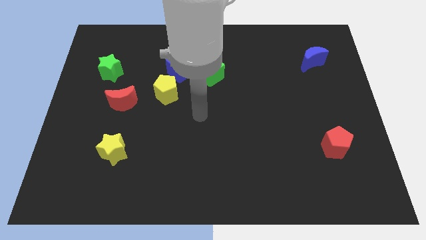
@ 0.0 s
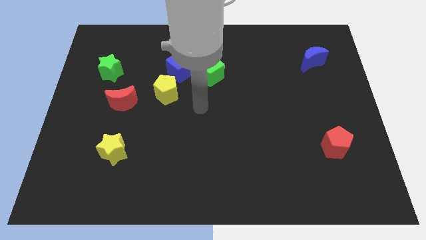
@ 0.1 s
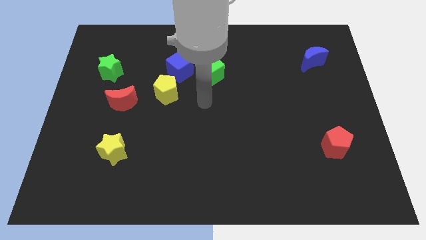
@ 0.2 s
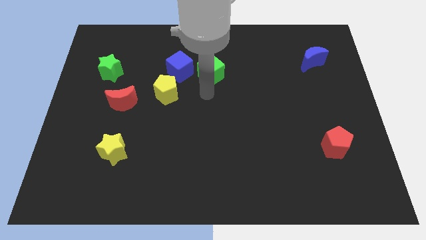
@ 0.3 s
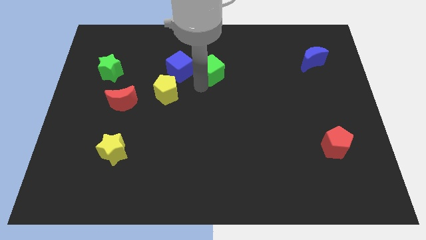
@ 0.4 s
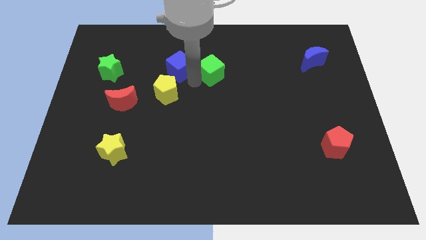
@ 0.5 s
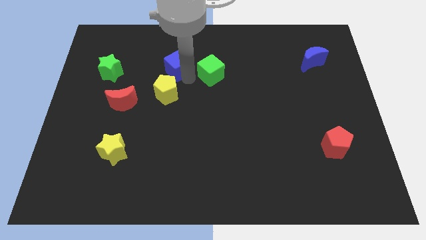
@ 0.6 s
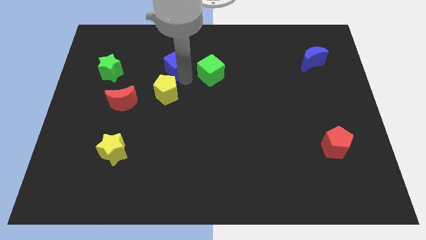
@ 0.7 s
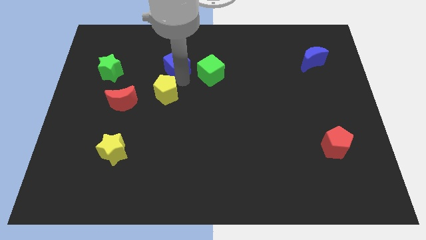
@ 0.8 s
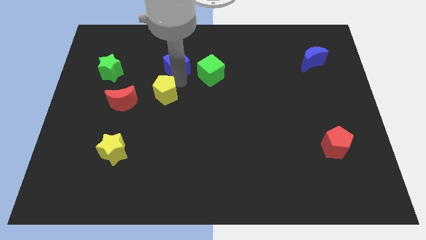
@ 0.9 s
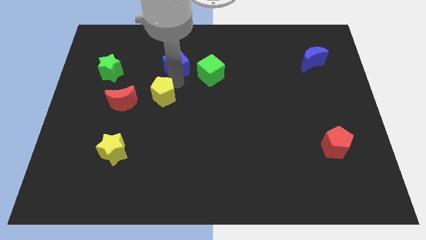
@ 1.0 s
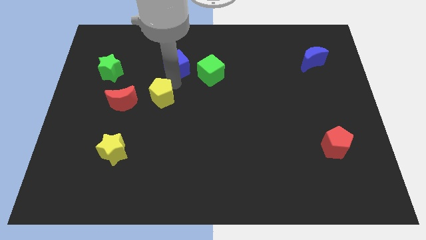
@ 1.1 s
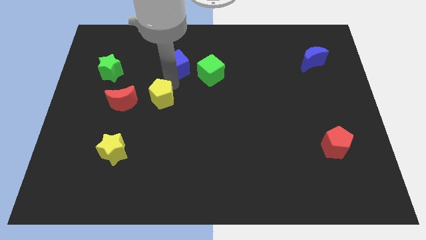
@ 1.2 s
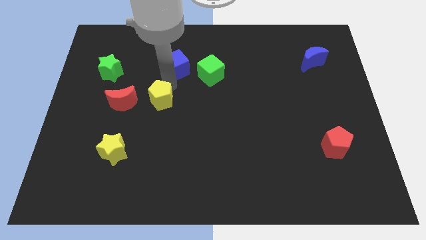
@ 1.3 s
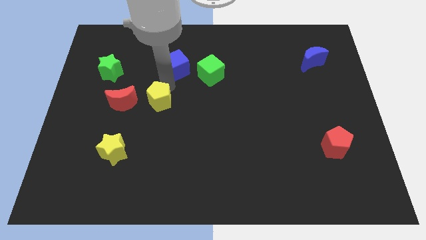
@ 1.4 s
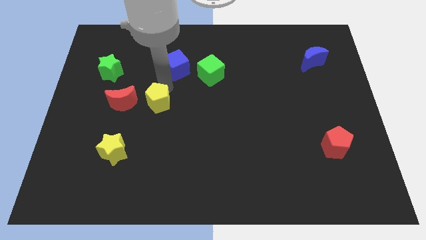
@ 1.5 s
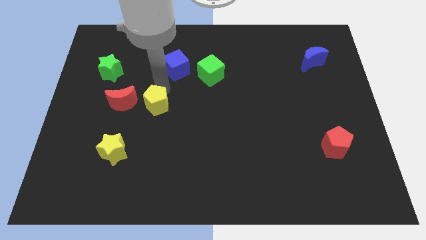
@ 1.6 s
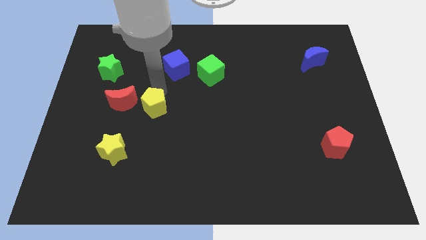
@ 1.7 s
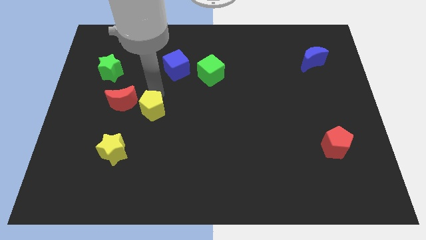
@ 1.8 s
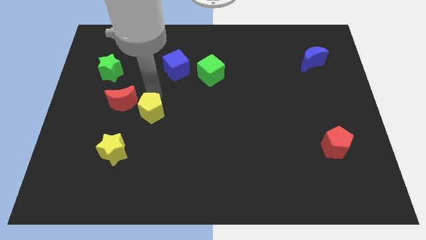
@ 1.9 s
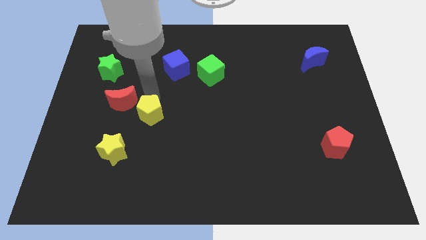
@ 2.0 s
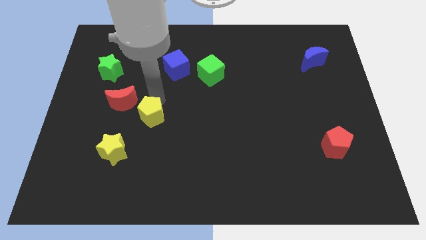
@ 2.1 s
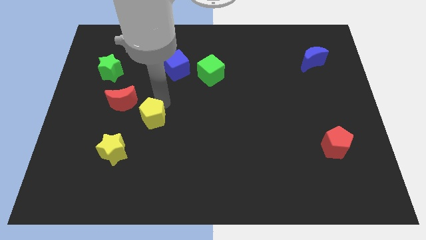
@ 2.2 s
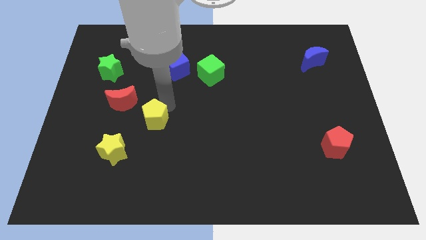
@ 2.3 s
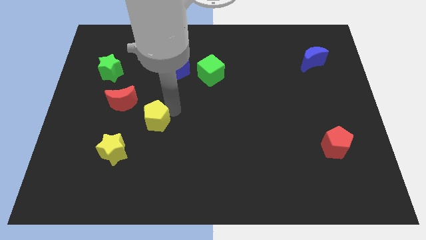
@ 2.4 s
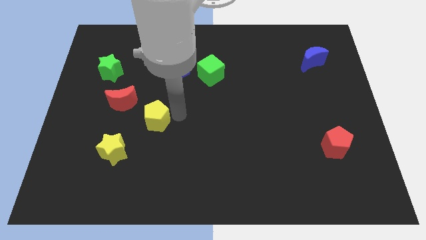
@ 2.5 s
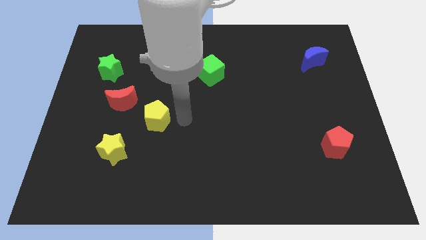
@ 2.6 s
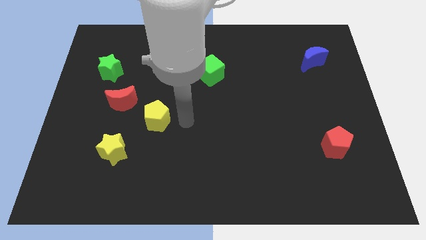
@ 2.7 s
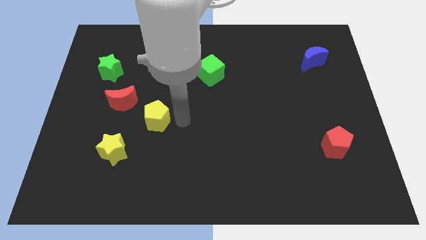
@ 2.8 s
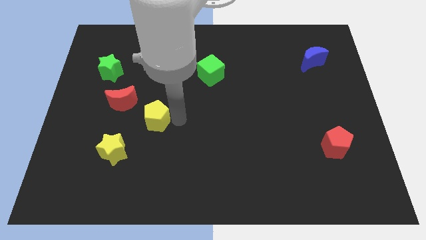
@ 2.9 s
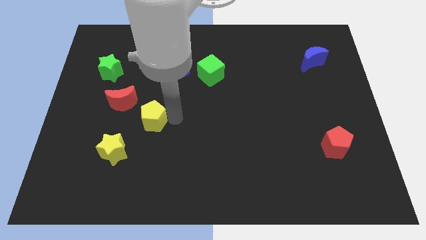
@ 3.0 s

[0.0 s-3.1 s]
slightly push the yellow pentagon diagonally downwards and left

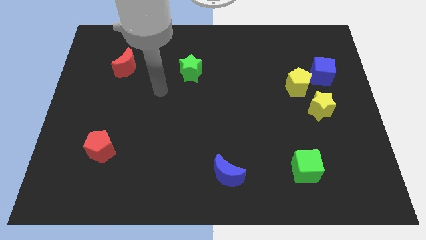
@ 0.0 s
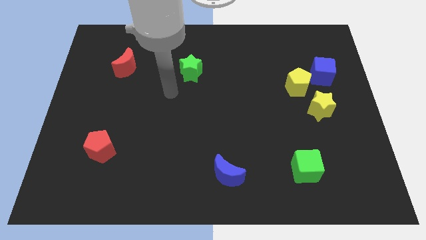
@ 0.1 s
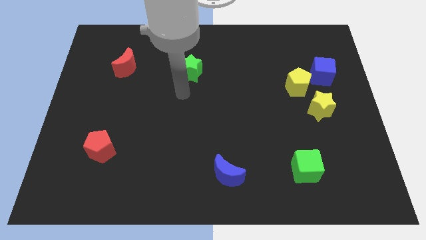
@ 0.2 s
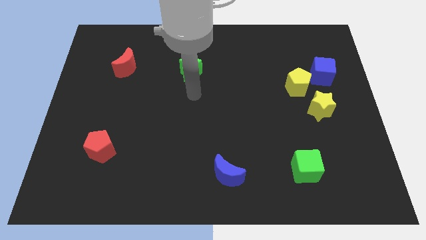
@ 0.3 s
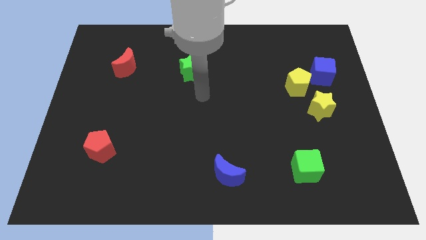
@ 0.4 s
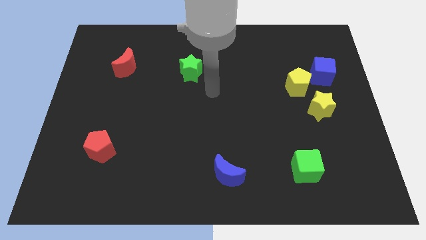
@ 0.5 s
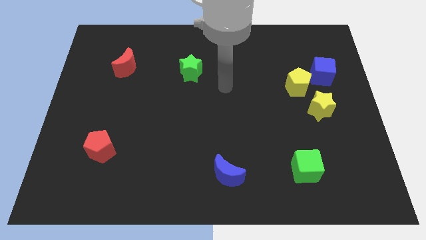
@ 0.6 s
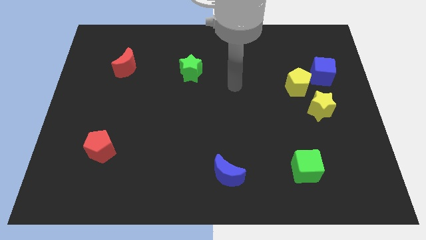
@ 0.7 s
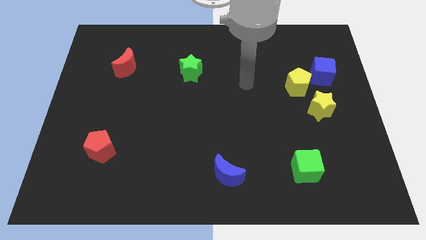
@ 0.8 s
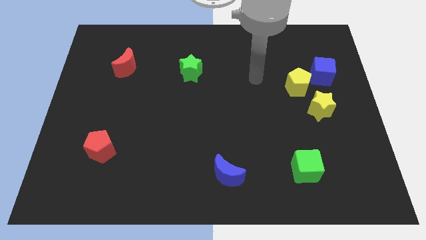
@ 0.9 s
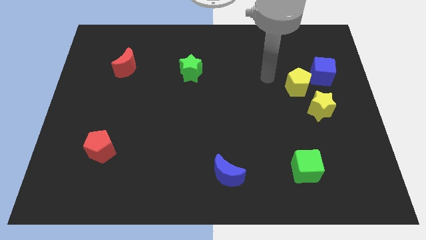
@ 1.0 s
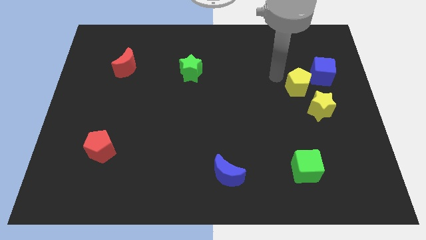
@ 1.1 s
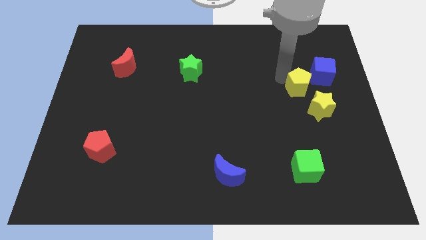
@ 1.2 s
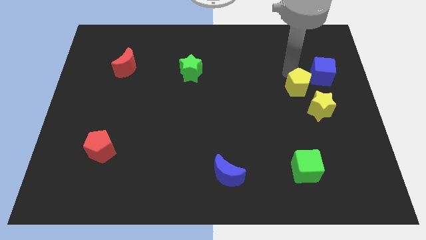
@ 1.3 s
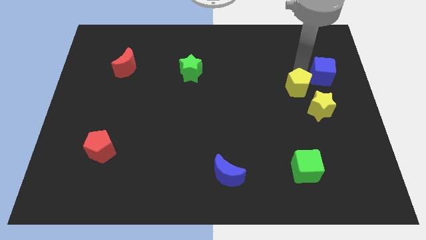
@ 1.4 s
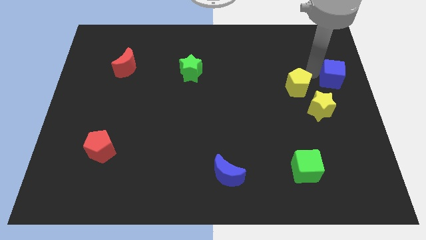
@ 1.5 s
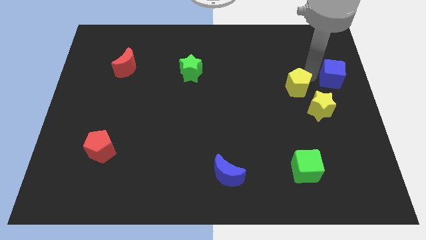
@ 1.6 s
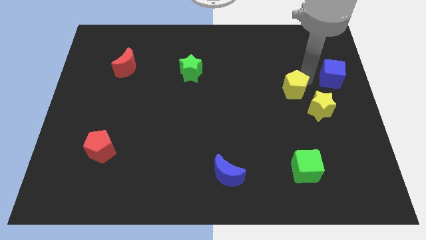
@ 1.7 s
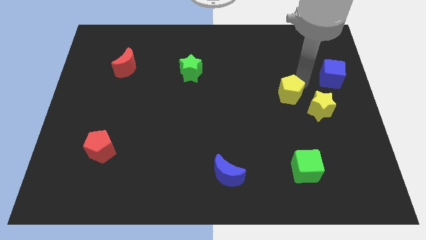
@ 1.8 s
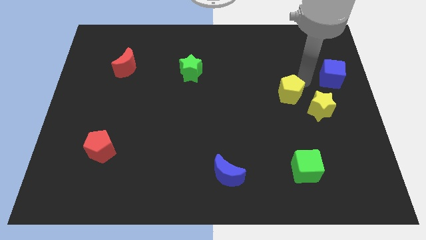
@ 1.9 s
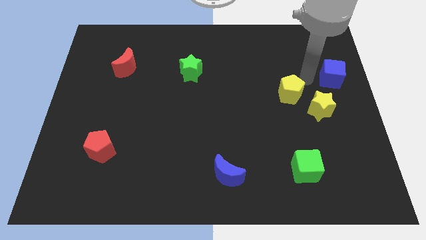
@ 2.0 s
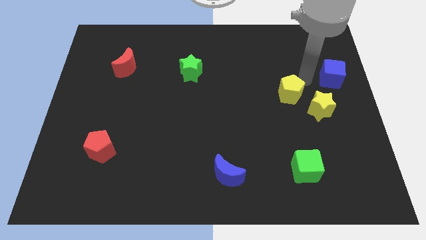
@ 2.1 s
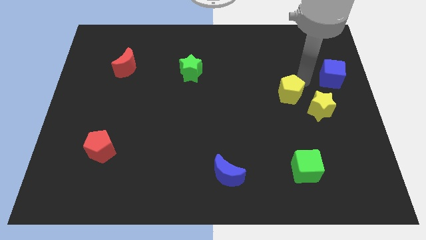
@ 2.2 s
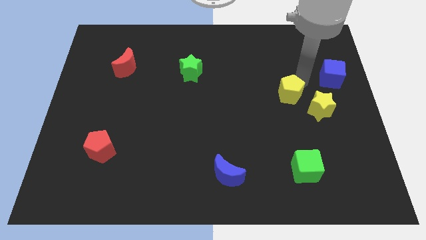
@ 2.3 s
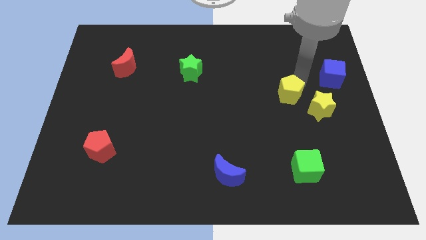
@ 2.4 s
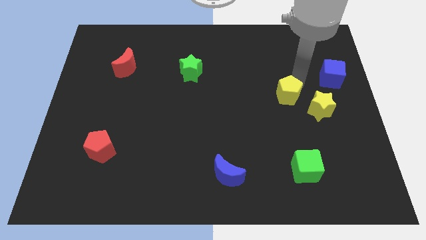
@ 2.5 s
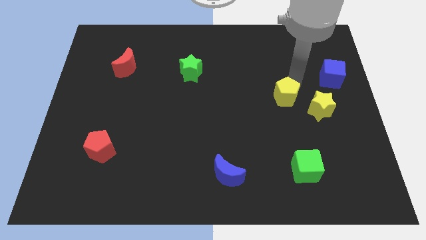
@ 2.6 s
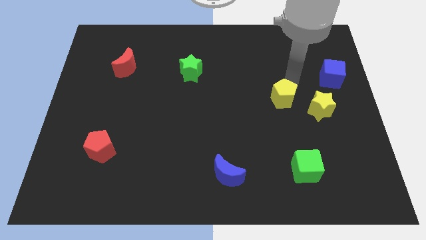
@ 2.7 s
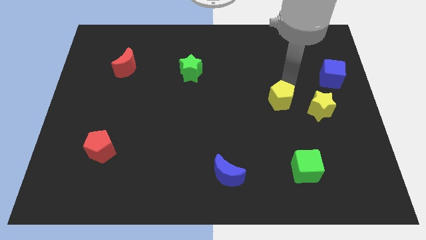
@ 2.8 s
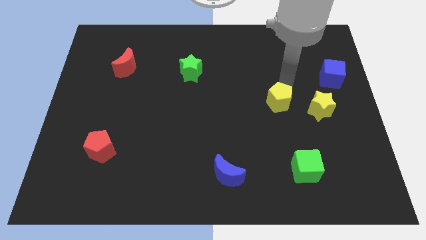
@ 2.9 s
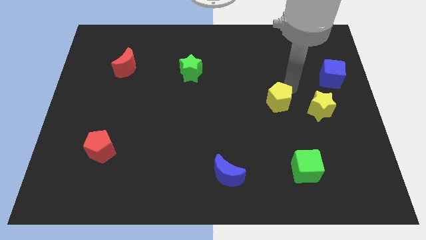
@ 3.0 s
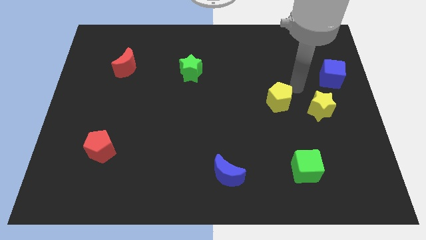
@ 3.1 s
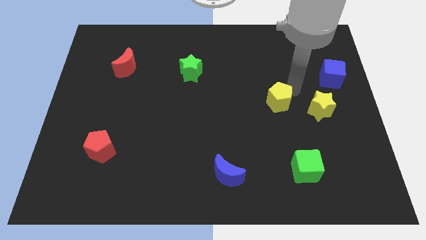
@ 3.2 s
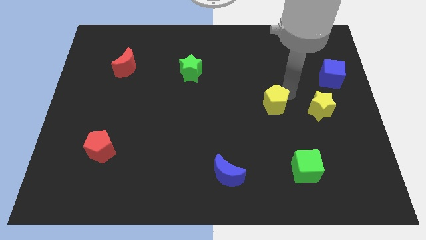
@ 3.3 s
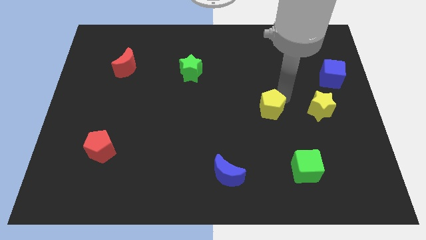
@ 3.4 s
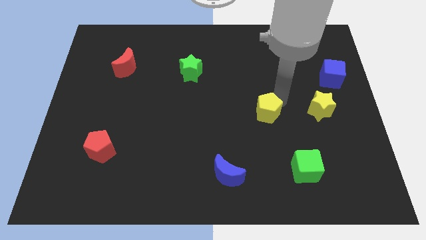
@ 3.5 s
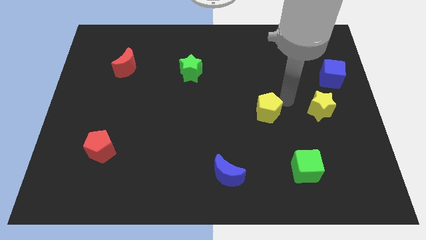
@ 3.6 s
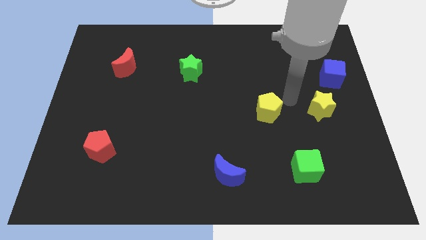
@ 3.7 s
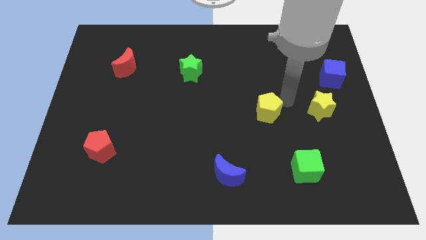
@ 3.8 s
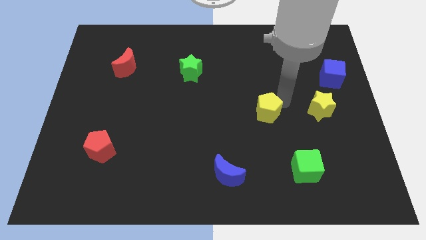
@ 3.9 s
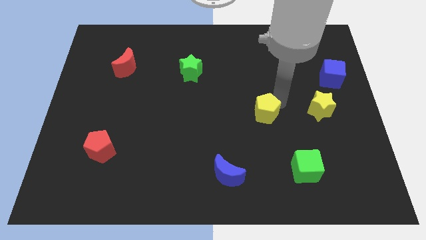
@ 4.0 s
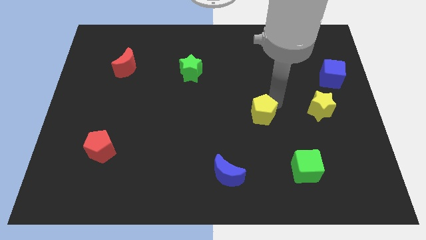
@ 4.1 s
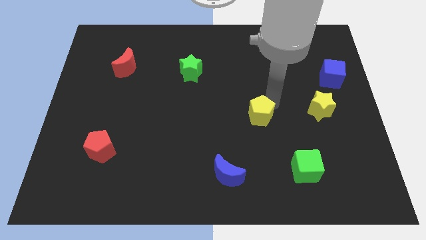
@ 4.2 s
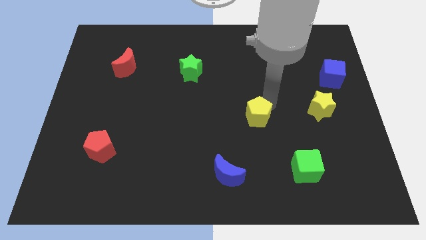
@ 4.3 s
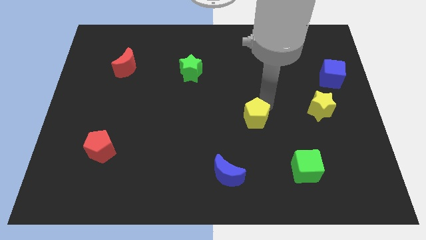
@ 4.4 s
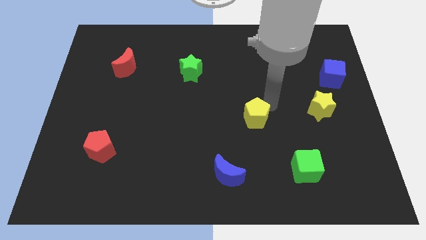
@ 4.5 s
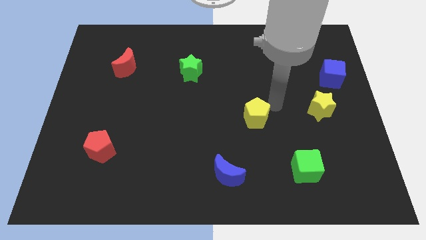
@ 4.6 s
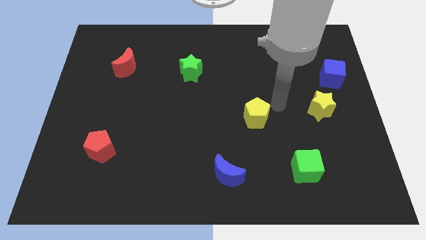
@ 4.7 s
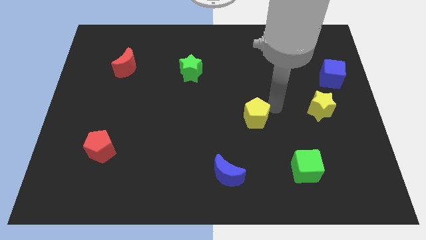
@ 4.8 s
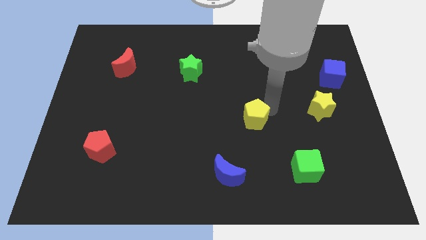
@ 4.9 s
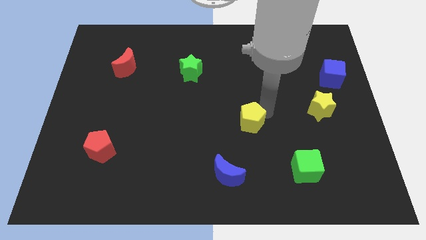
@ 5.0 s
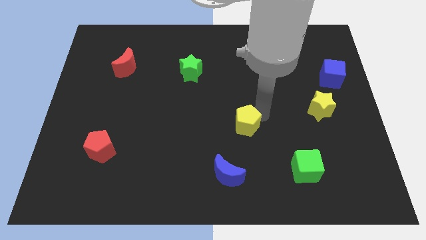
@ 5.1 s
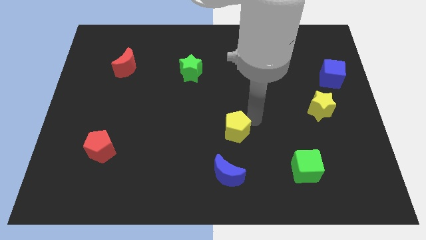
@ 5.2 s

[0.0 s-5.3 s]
move the yellow pentagon downwards and to the left
